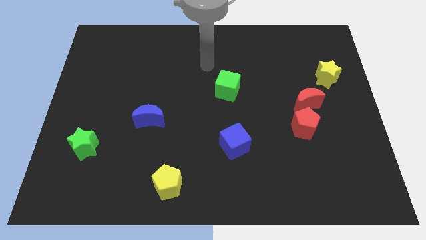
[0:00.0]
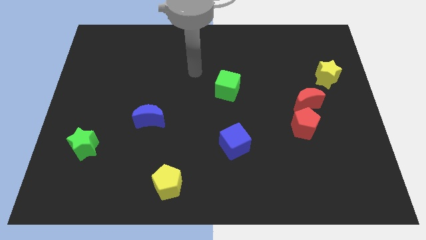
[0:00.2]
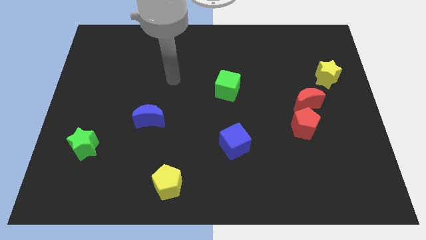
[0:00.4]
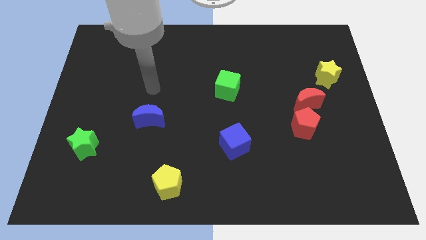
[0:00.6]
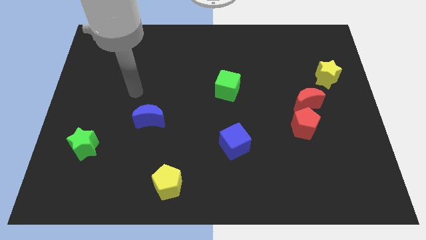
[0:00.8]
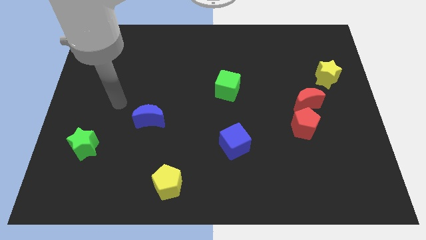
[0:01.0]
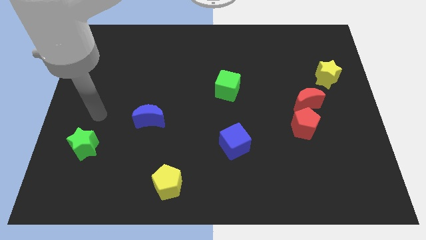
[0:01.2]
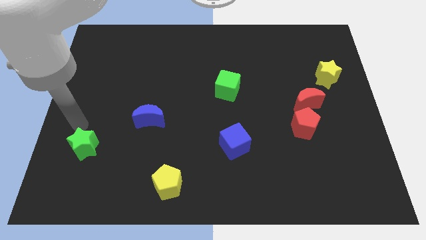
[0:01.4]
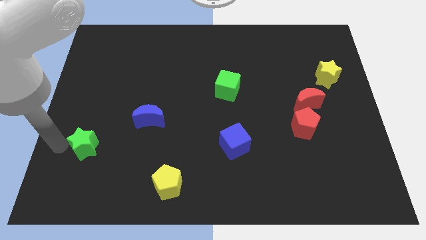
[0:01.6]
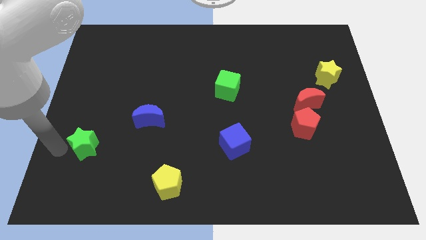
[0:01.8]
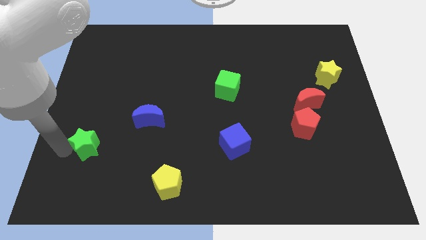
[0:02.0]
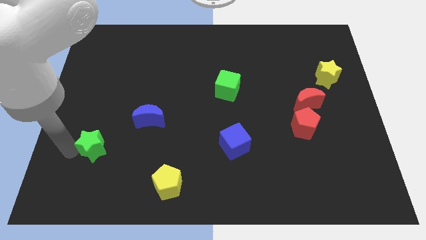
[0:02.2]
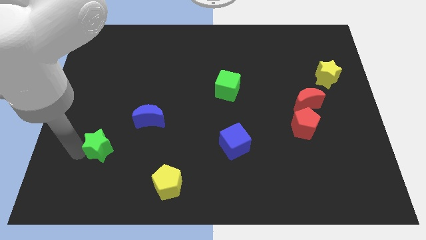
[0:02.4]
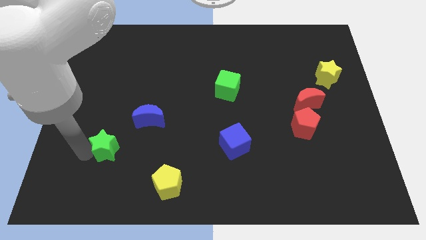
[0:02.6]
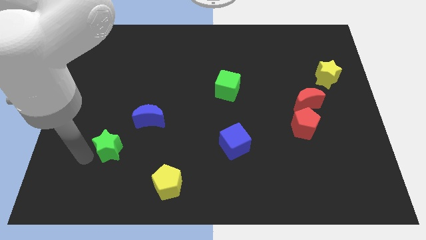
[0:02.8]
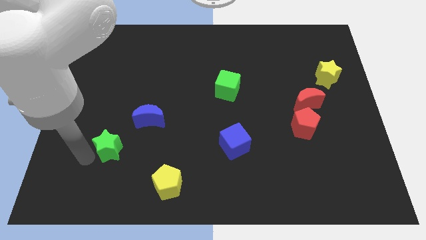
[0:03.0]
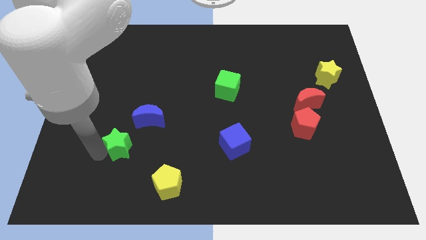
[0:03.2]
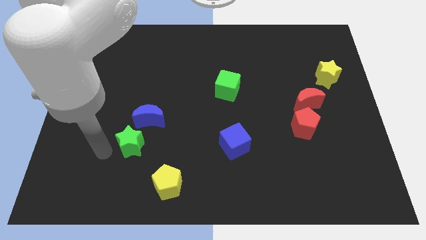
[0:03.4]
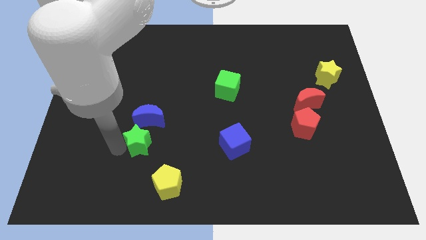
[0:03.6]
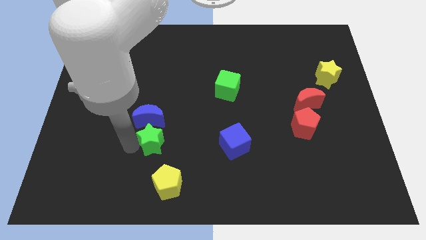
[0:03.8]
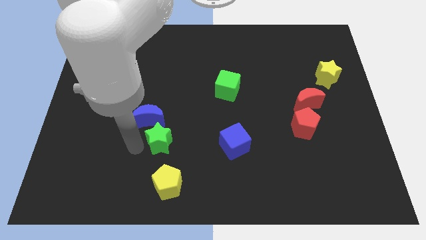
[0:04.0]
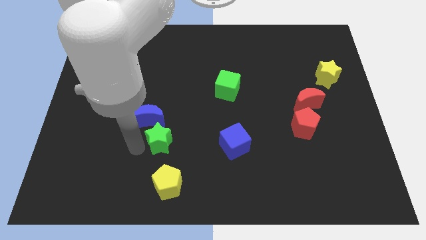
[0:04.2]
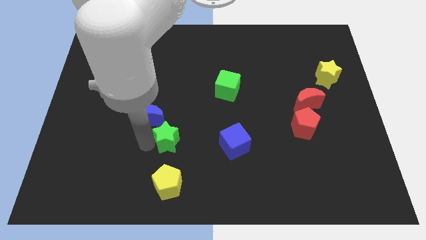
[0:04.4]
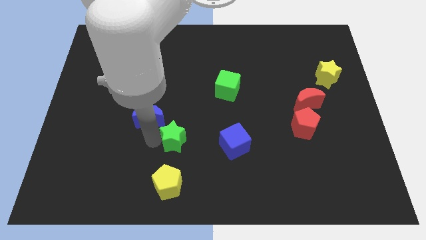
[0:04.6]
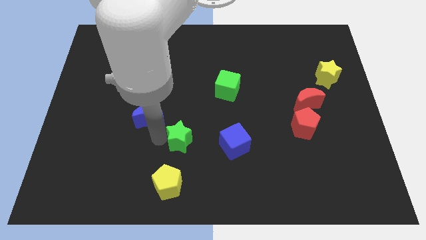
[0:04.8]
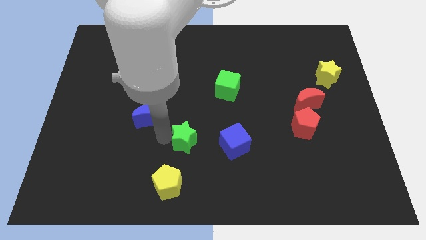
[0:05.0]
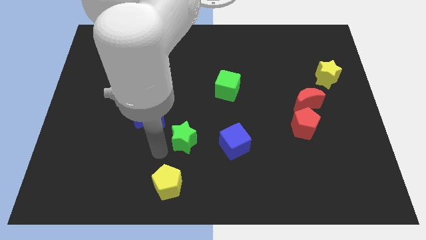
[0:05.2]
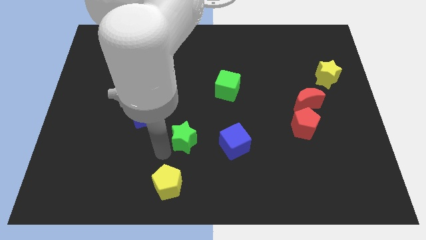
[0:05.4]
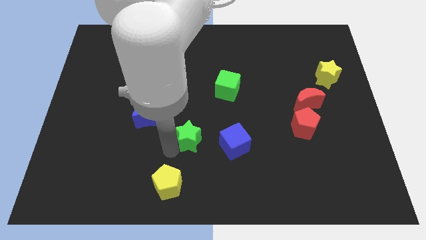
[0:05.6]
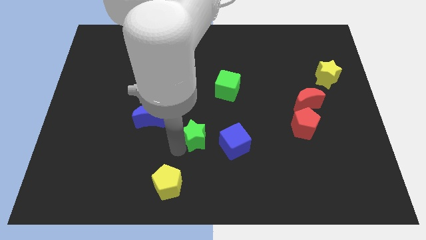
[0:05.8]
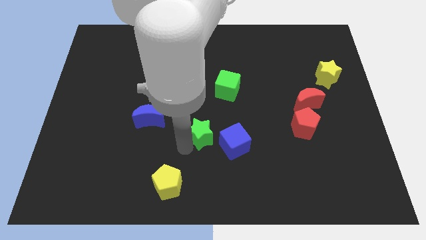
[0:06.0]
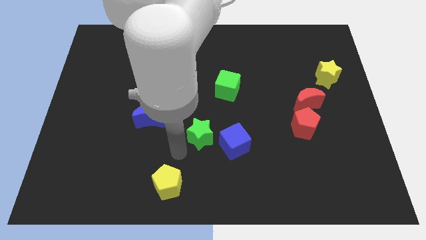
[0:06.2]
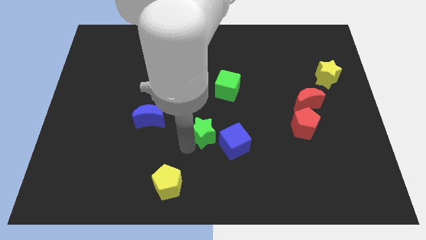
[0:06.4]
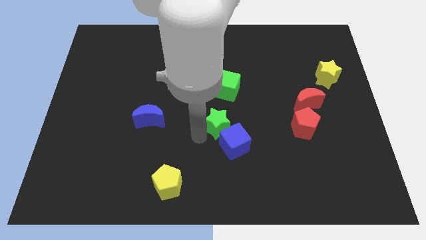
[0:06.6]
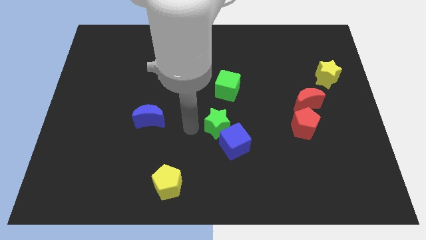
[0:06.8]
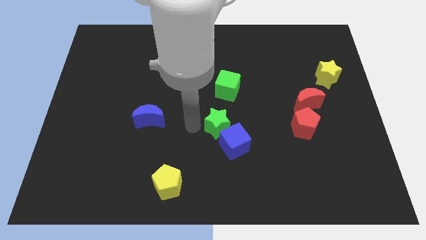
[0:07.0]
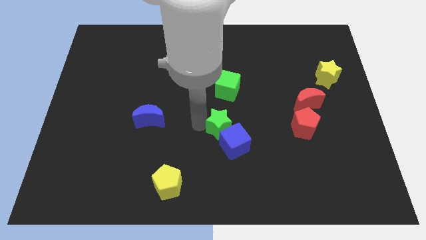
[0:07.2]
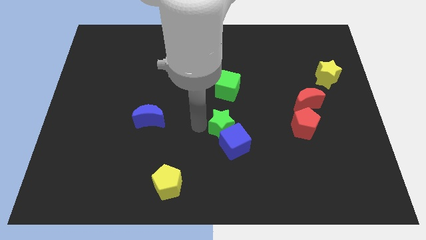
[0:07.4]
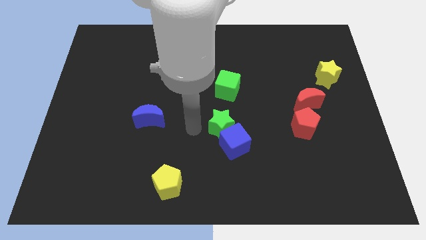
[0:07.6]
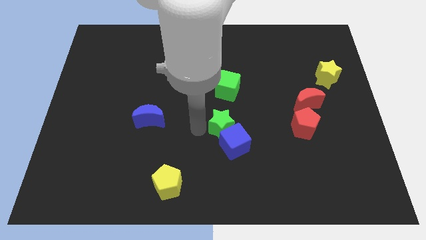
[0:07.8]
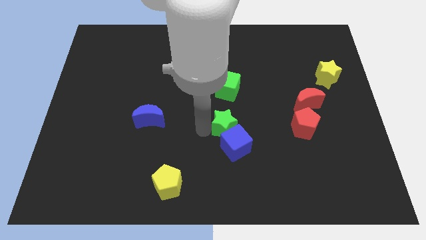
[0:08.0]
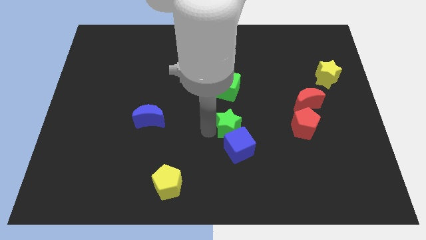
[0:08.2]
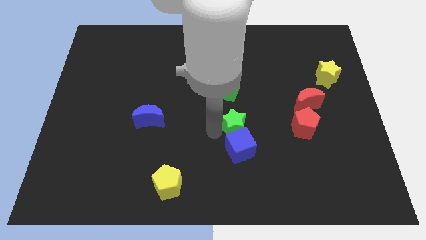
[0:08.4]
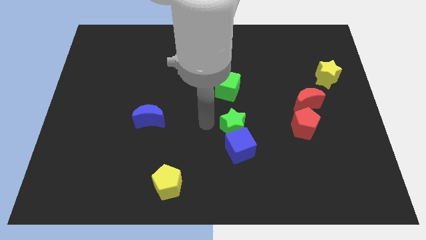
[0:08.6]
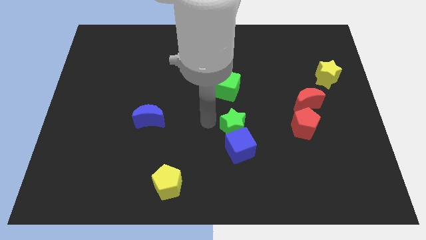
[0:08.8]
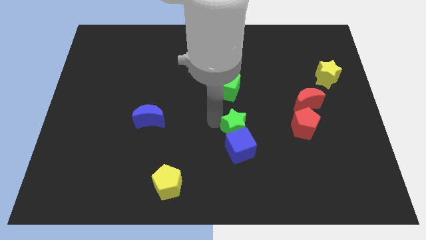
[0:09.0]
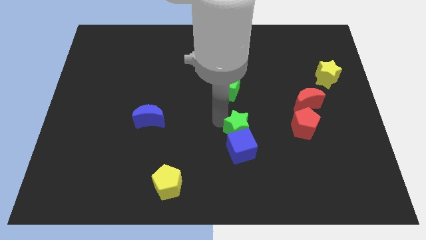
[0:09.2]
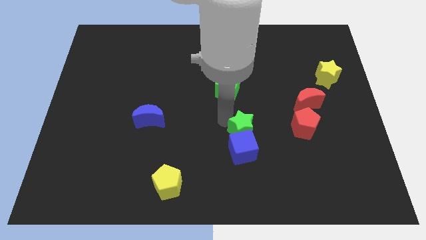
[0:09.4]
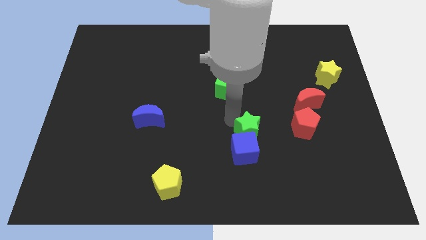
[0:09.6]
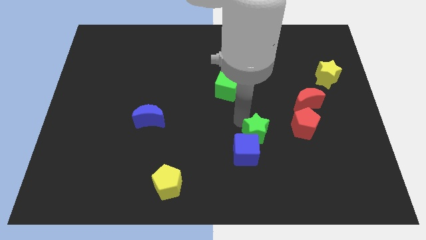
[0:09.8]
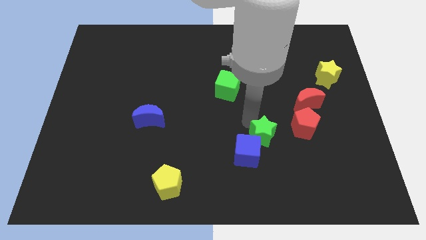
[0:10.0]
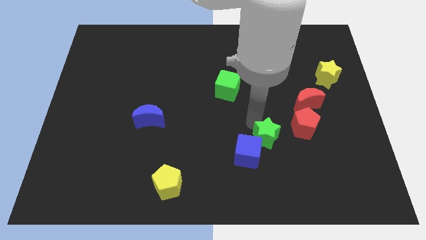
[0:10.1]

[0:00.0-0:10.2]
push the green star to the right of the blue cube

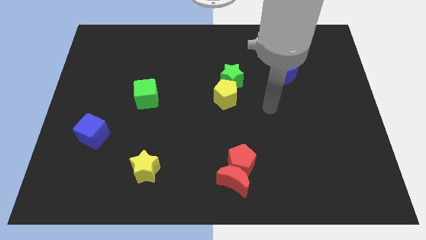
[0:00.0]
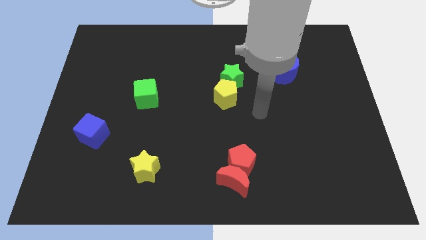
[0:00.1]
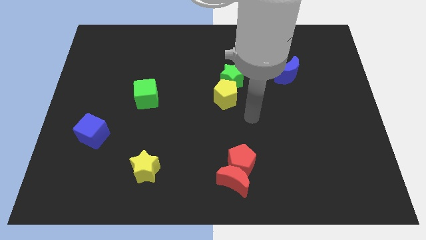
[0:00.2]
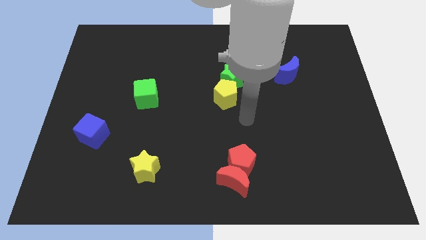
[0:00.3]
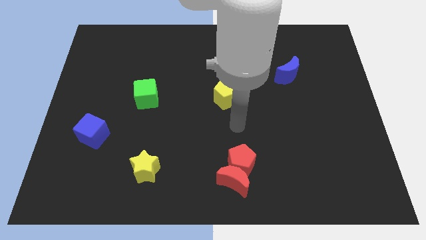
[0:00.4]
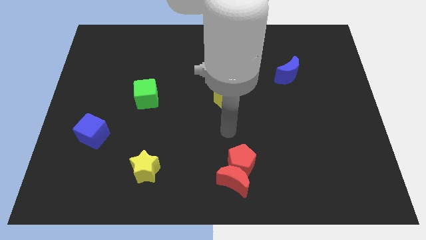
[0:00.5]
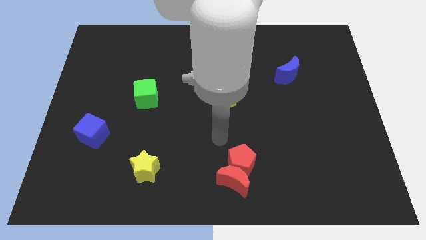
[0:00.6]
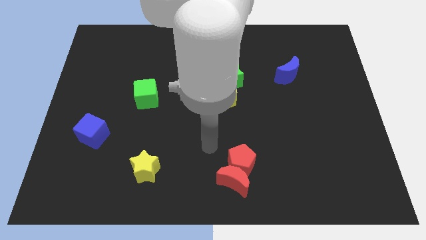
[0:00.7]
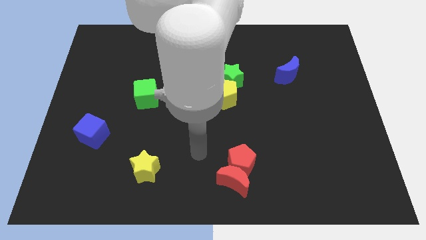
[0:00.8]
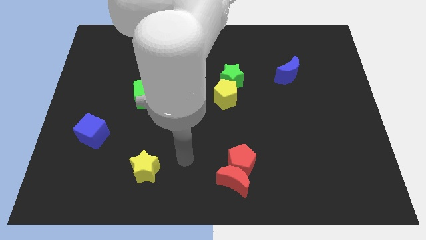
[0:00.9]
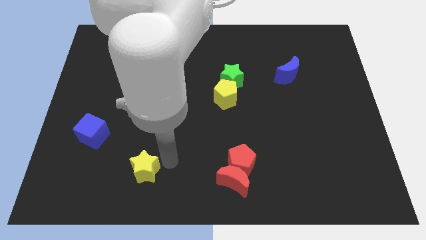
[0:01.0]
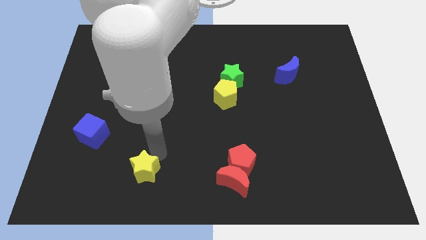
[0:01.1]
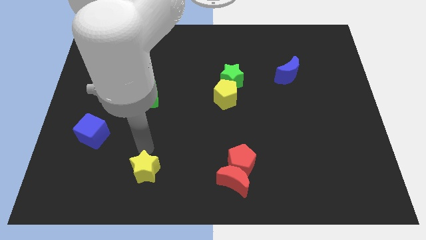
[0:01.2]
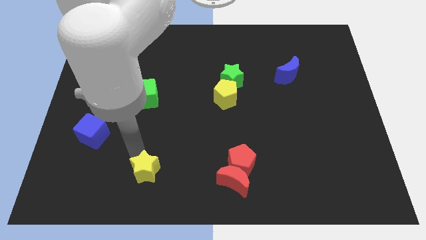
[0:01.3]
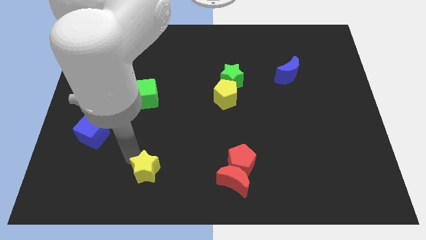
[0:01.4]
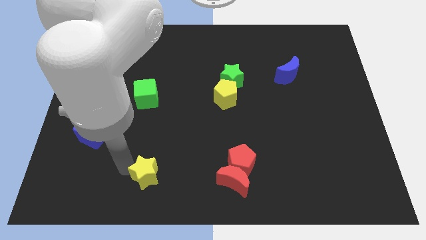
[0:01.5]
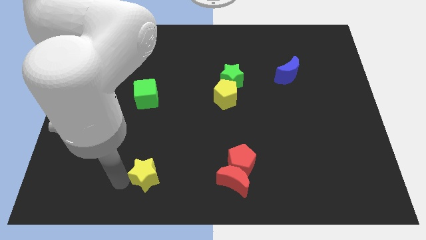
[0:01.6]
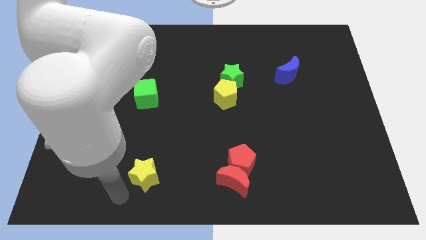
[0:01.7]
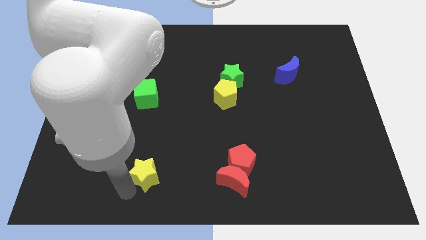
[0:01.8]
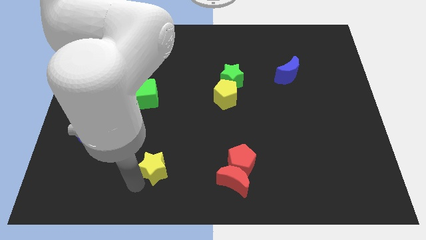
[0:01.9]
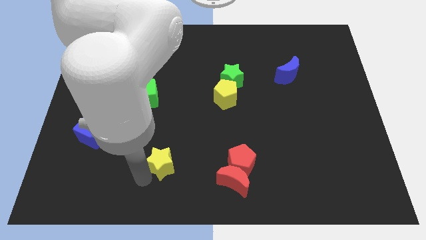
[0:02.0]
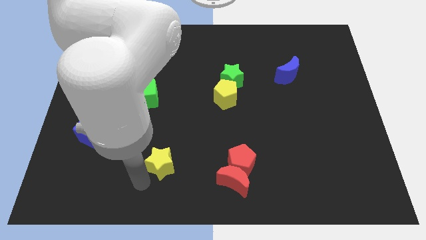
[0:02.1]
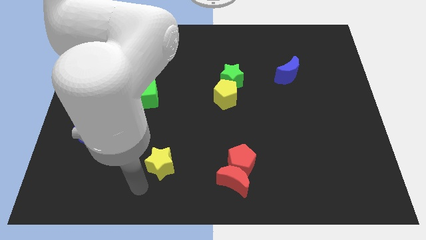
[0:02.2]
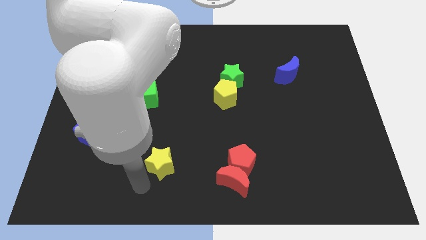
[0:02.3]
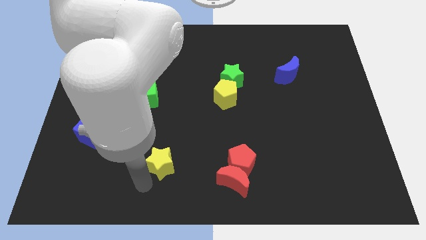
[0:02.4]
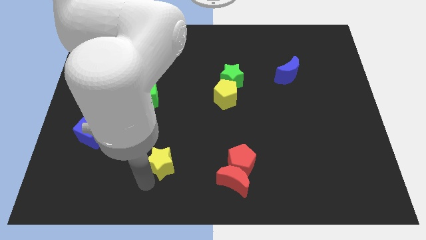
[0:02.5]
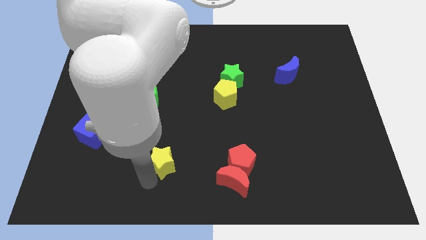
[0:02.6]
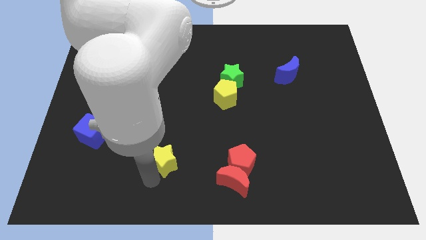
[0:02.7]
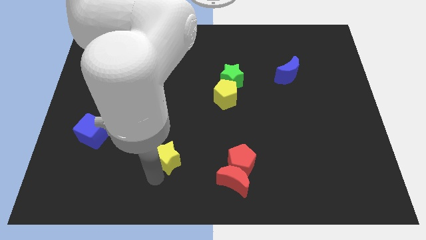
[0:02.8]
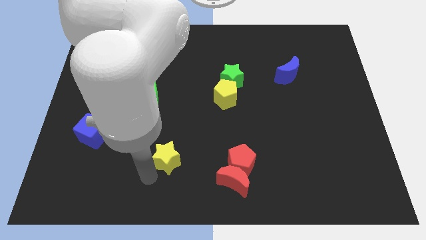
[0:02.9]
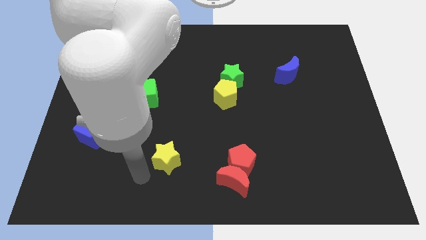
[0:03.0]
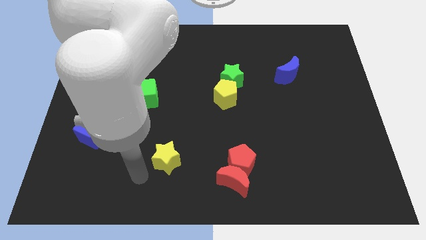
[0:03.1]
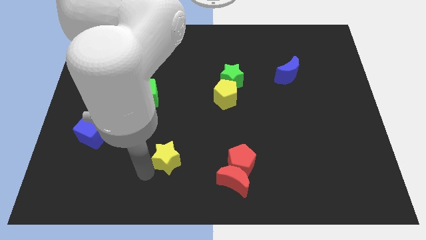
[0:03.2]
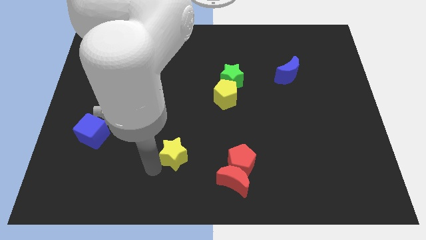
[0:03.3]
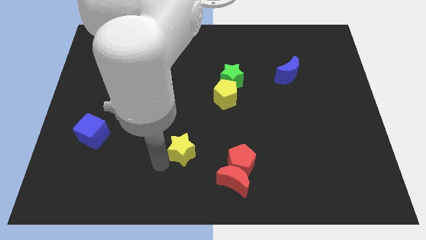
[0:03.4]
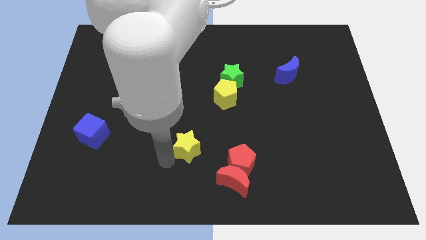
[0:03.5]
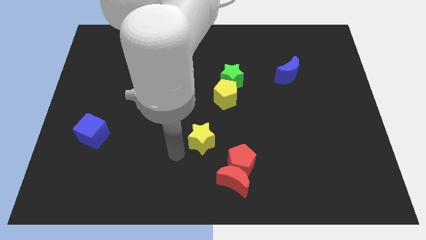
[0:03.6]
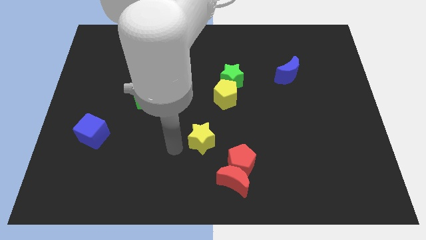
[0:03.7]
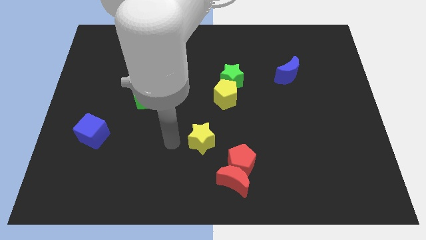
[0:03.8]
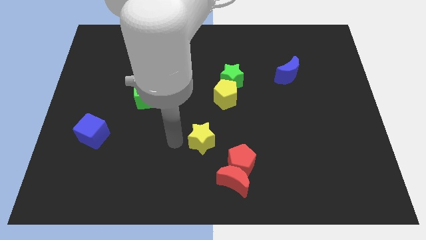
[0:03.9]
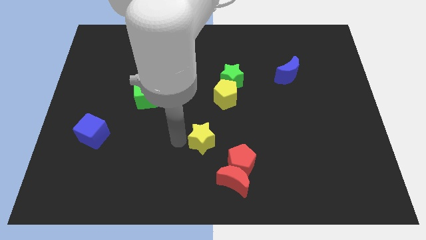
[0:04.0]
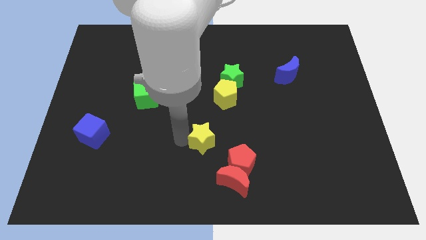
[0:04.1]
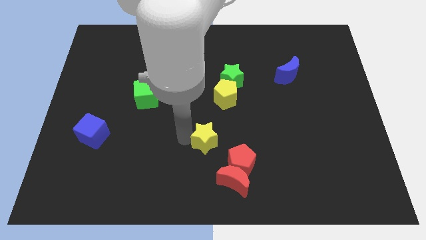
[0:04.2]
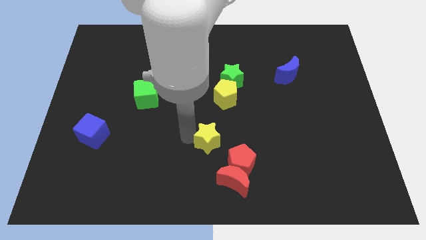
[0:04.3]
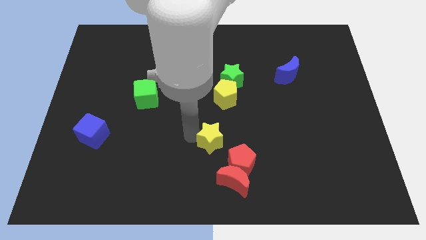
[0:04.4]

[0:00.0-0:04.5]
put the yellow star to the top side of the red moon
